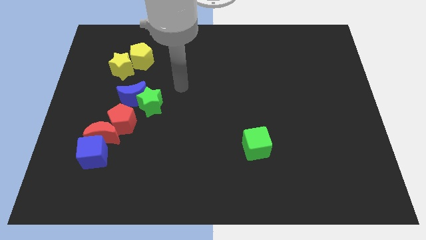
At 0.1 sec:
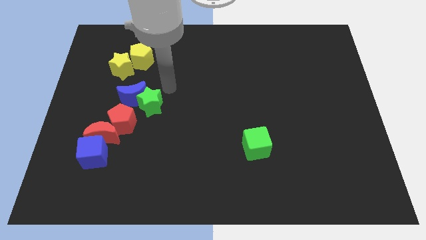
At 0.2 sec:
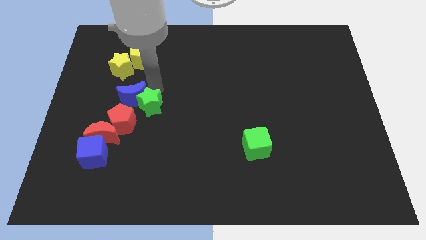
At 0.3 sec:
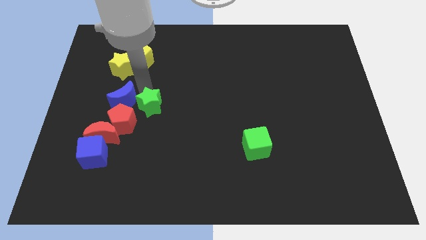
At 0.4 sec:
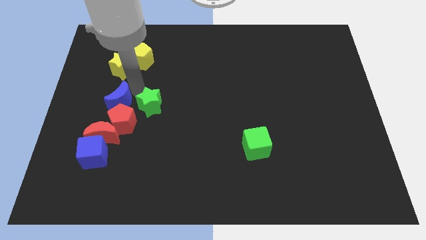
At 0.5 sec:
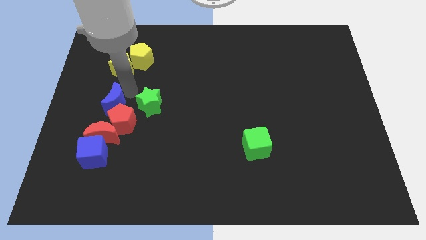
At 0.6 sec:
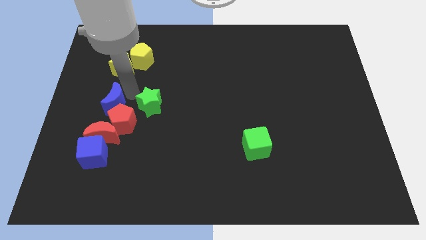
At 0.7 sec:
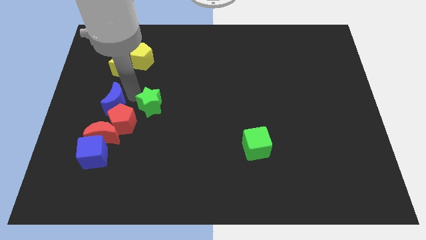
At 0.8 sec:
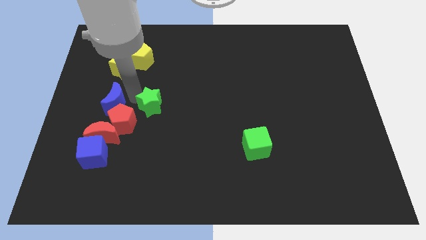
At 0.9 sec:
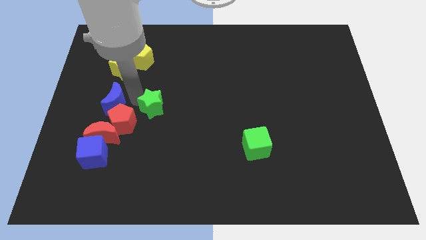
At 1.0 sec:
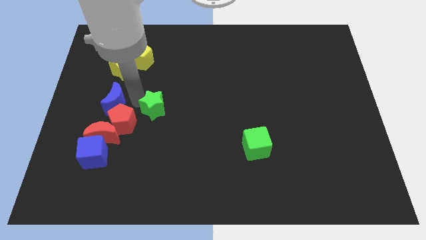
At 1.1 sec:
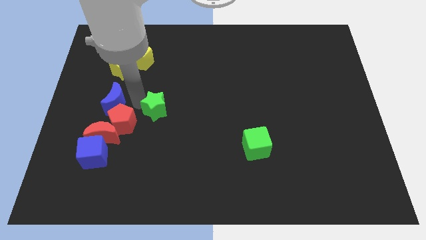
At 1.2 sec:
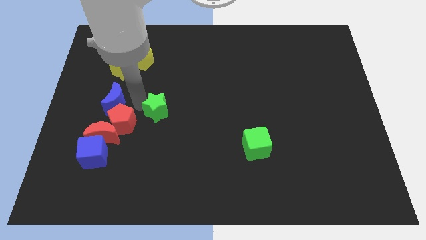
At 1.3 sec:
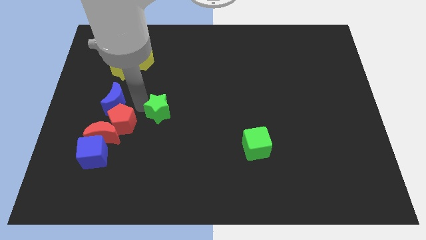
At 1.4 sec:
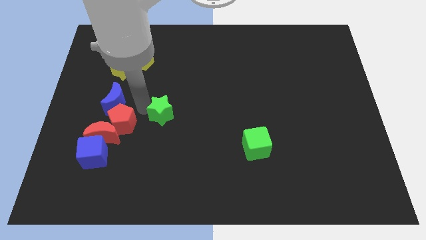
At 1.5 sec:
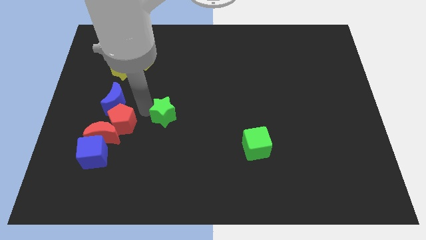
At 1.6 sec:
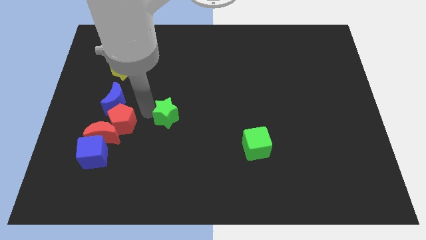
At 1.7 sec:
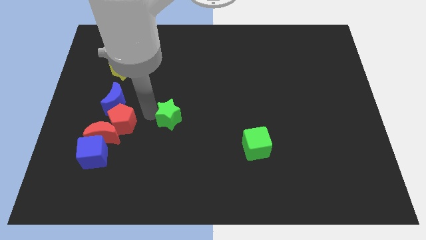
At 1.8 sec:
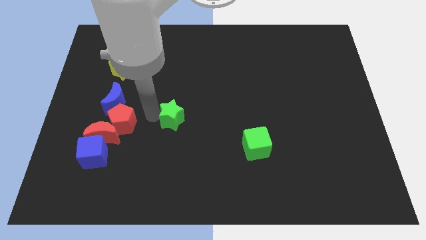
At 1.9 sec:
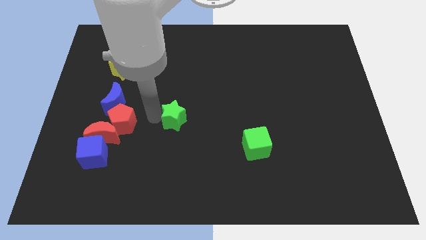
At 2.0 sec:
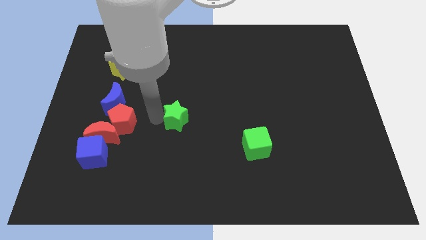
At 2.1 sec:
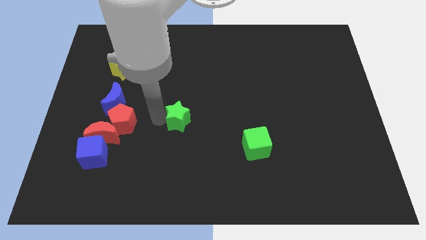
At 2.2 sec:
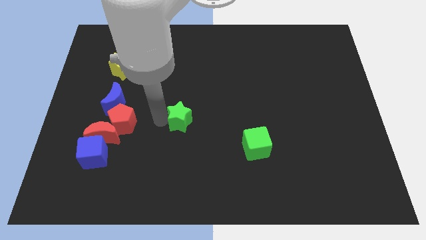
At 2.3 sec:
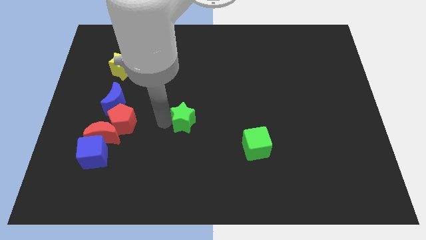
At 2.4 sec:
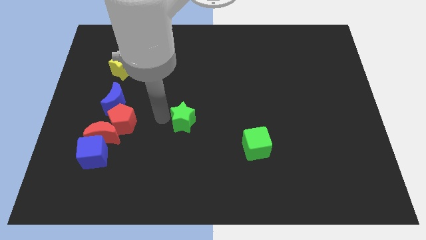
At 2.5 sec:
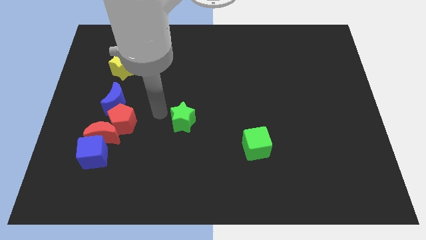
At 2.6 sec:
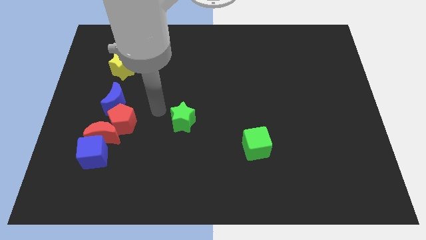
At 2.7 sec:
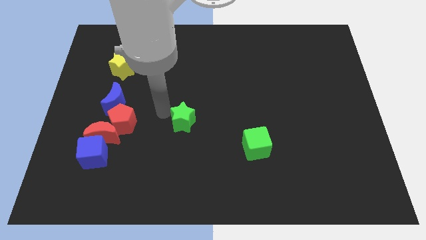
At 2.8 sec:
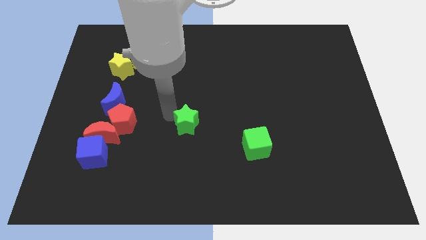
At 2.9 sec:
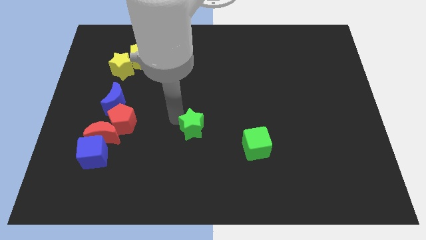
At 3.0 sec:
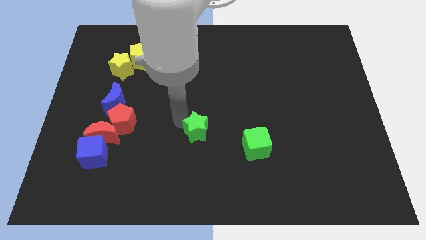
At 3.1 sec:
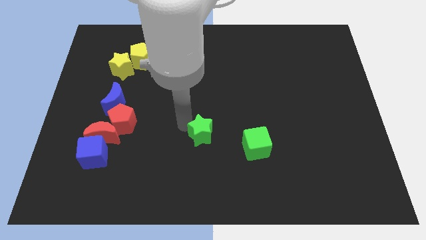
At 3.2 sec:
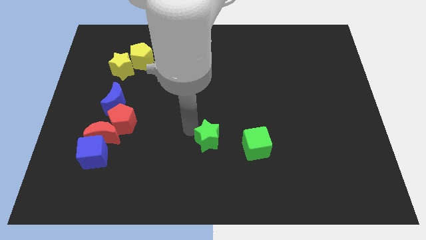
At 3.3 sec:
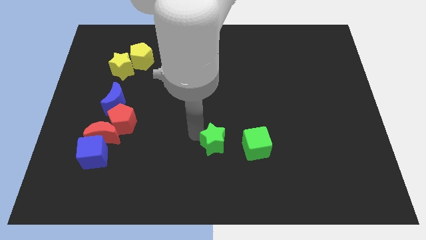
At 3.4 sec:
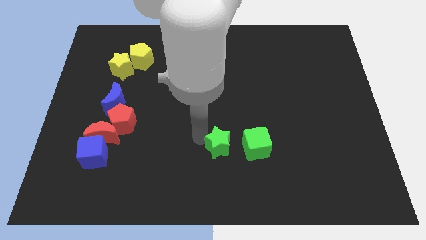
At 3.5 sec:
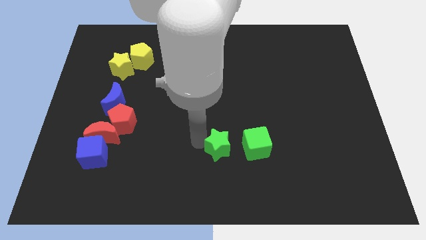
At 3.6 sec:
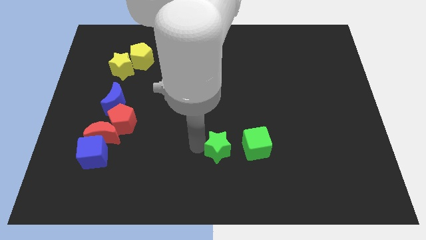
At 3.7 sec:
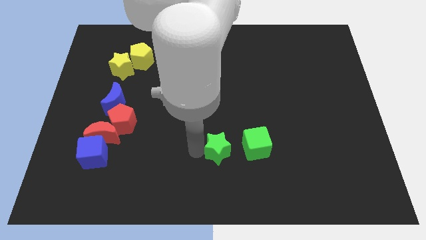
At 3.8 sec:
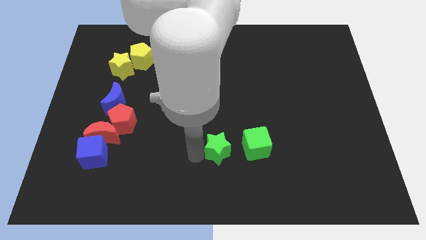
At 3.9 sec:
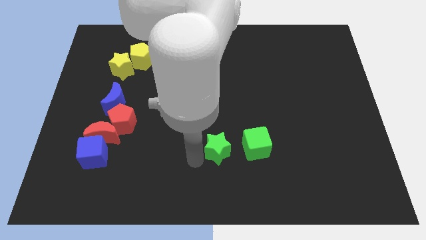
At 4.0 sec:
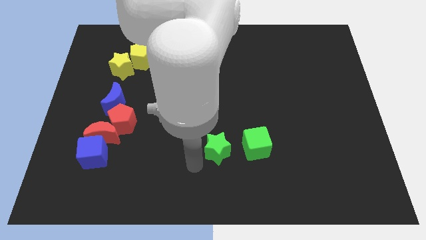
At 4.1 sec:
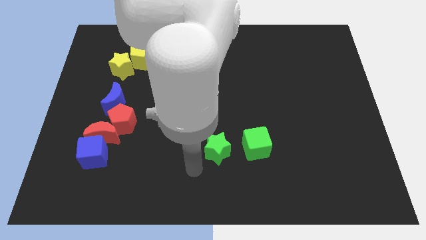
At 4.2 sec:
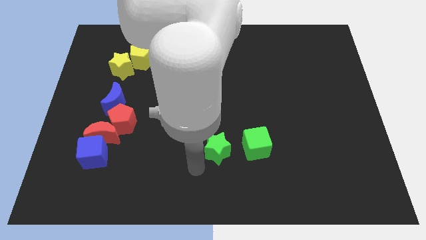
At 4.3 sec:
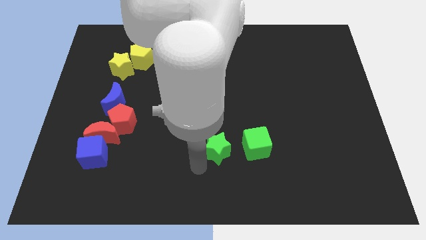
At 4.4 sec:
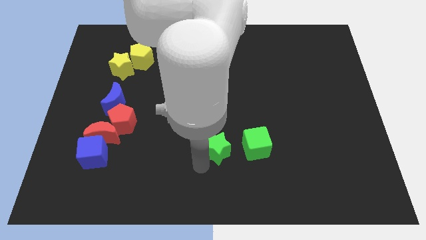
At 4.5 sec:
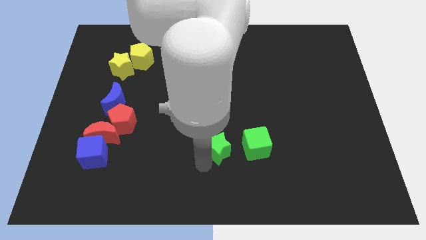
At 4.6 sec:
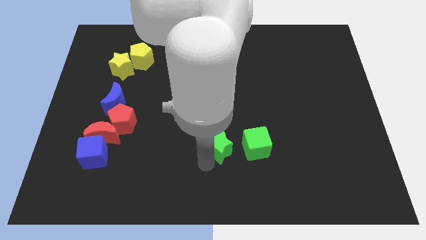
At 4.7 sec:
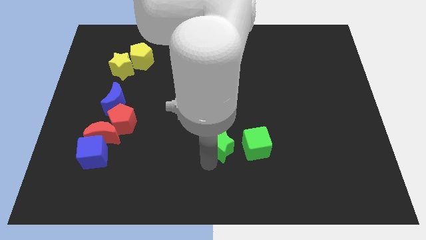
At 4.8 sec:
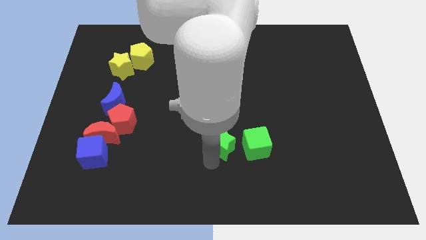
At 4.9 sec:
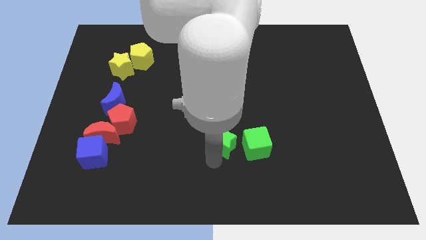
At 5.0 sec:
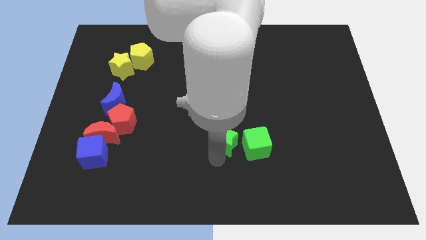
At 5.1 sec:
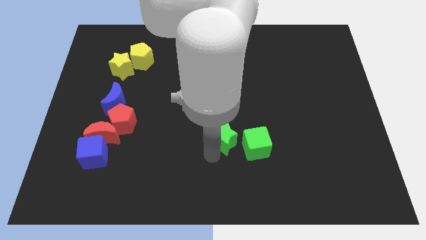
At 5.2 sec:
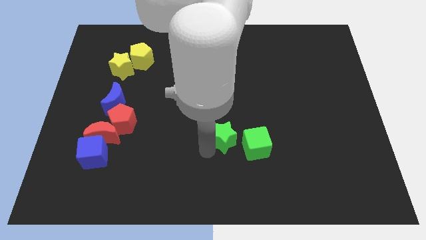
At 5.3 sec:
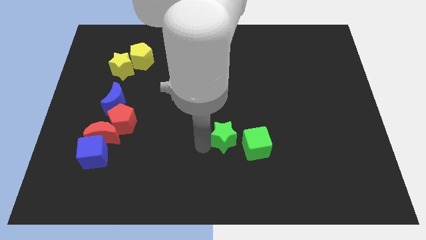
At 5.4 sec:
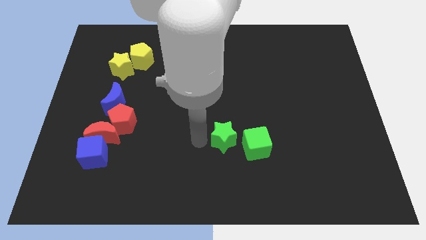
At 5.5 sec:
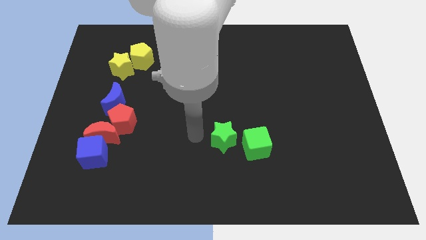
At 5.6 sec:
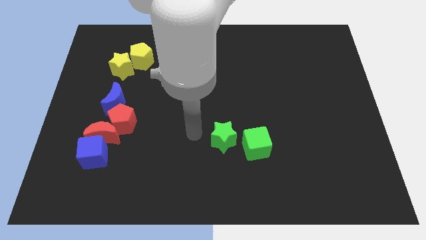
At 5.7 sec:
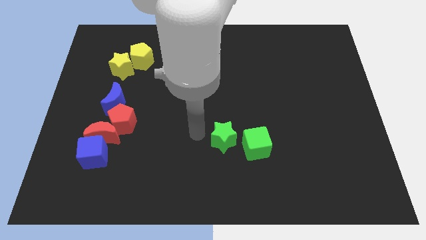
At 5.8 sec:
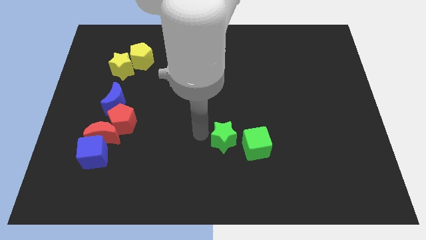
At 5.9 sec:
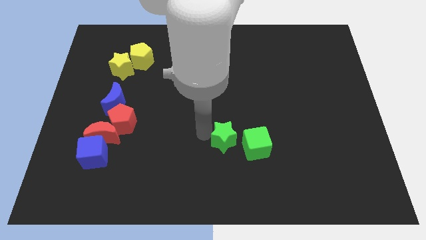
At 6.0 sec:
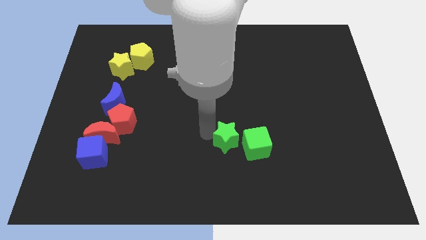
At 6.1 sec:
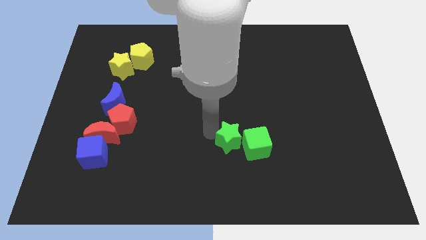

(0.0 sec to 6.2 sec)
put the green star to the green cube

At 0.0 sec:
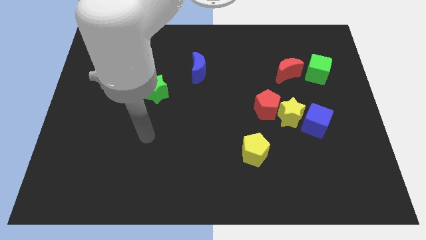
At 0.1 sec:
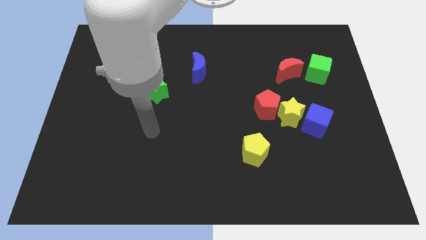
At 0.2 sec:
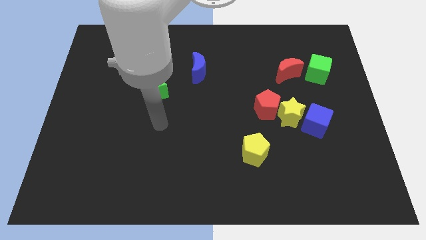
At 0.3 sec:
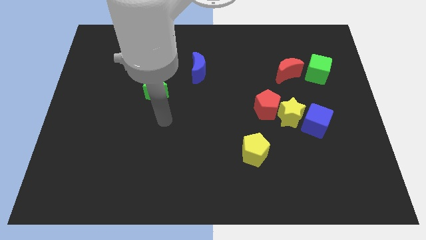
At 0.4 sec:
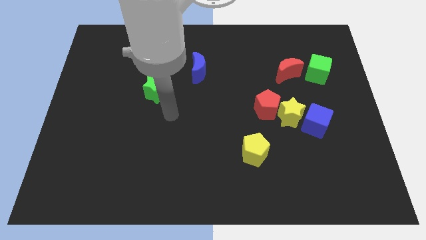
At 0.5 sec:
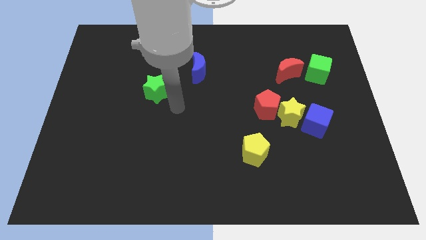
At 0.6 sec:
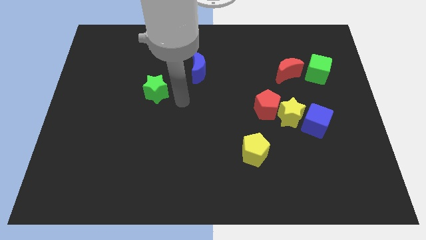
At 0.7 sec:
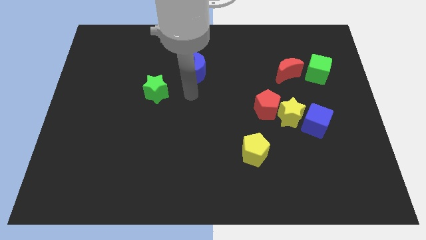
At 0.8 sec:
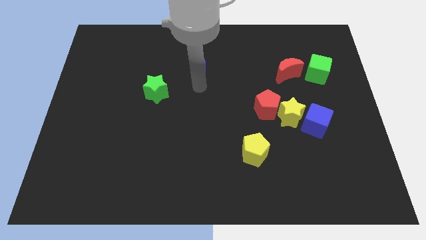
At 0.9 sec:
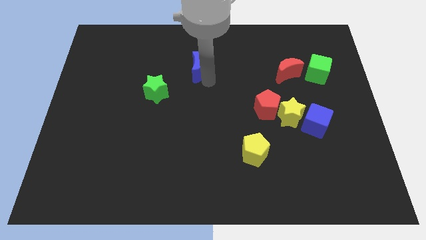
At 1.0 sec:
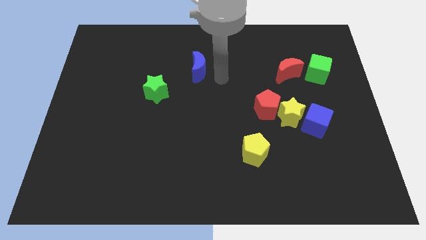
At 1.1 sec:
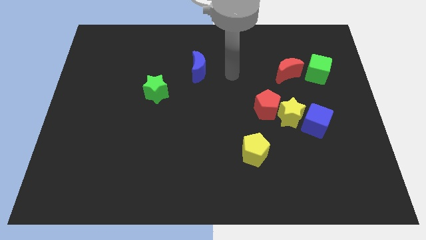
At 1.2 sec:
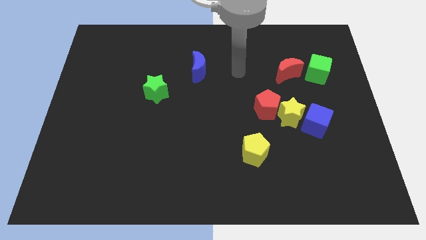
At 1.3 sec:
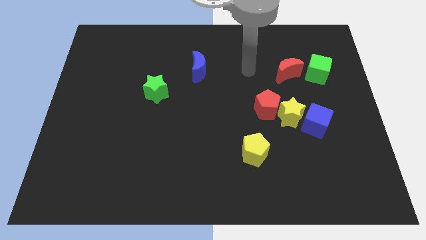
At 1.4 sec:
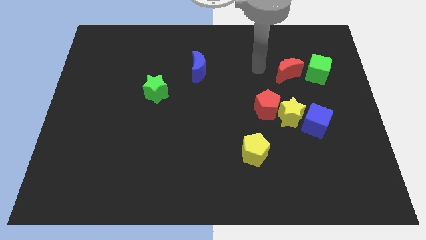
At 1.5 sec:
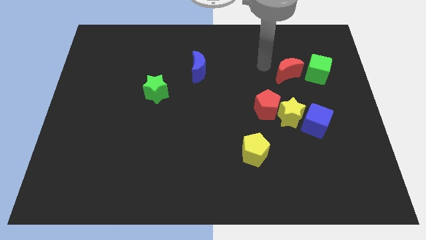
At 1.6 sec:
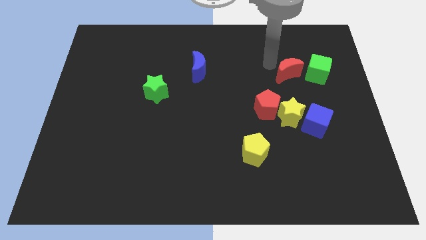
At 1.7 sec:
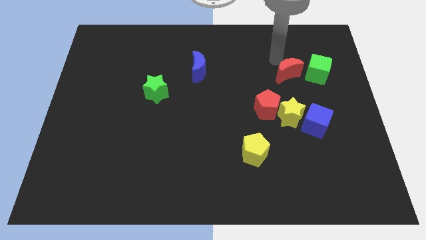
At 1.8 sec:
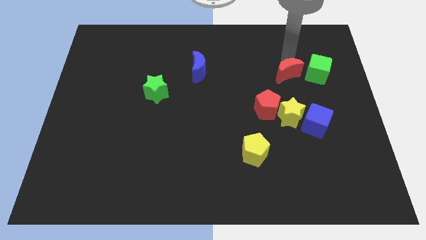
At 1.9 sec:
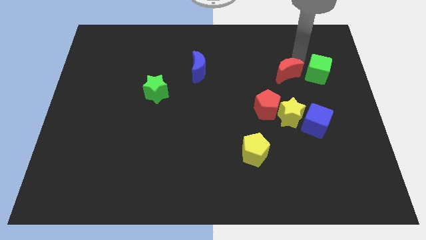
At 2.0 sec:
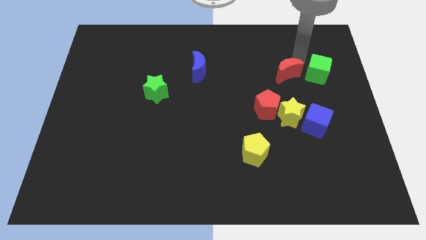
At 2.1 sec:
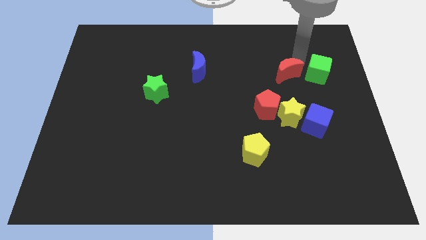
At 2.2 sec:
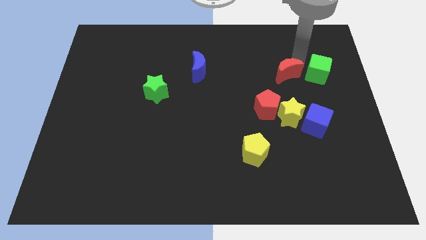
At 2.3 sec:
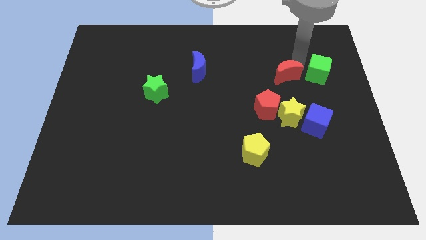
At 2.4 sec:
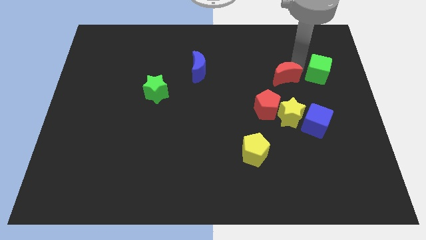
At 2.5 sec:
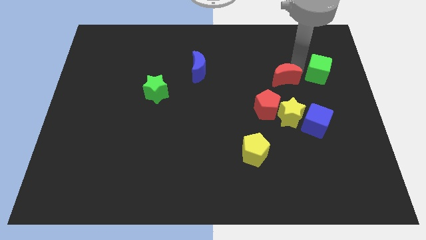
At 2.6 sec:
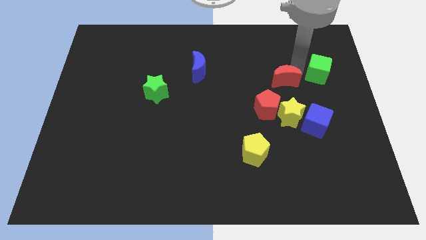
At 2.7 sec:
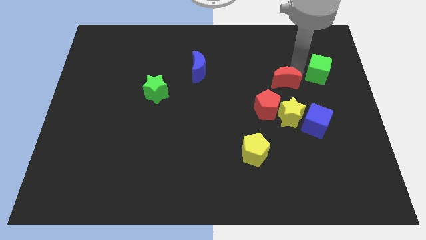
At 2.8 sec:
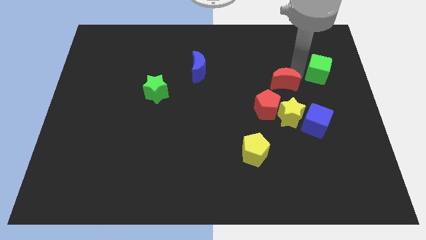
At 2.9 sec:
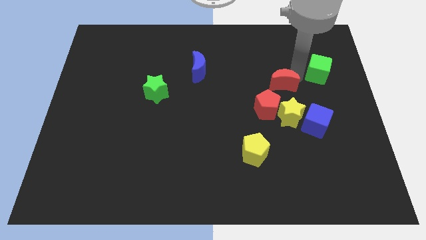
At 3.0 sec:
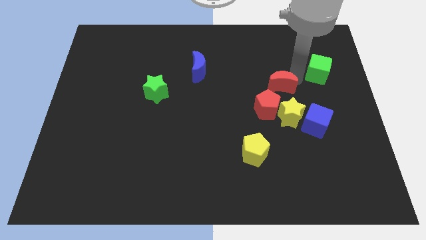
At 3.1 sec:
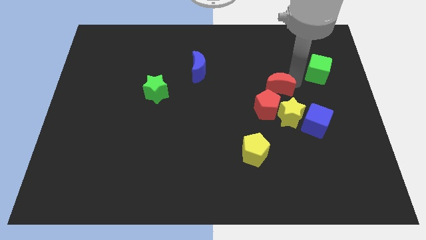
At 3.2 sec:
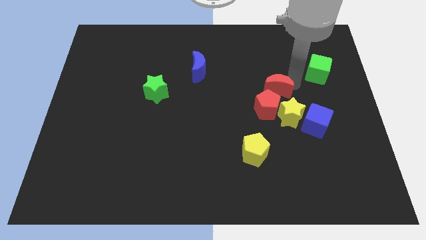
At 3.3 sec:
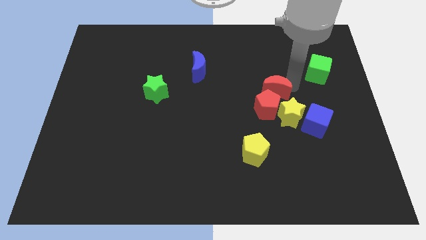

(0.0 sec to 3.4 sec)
push the red moon towards the red pentagon
